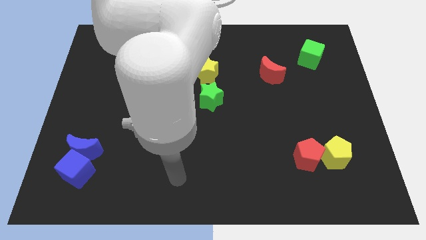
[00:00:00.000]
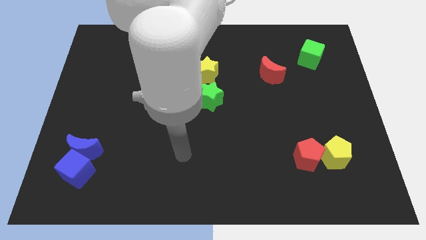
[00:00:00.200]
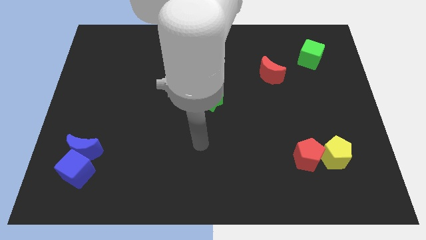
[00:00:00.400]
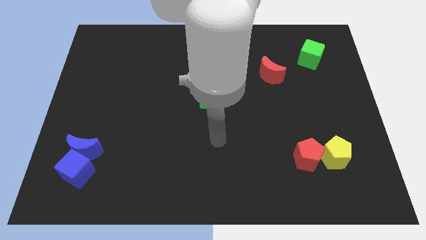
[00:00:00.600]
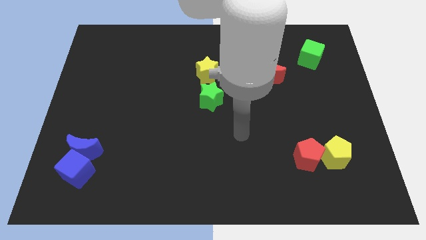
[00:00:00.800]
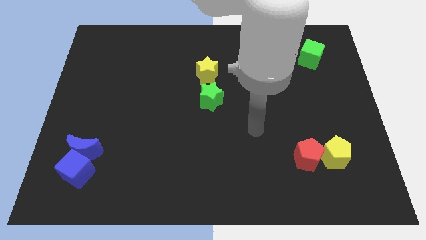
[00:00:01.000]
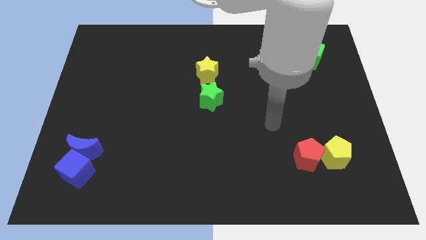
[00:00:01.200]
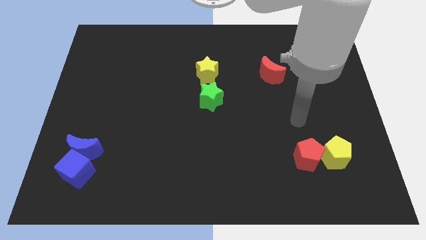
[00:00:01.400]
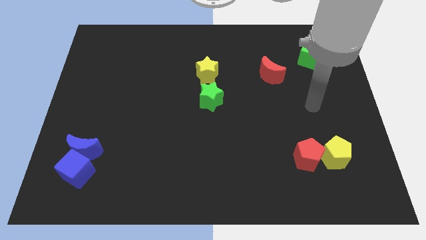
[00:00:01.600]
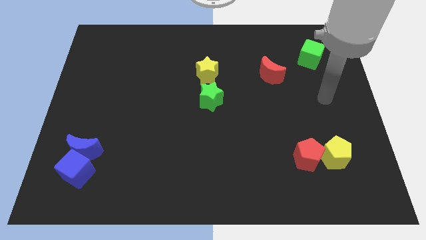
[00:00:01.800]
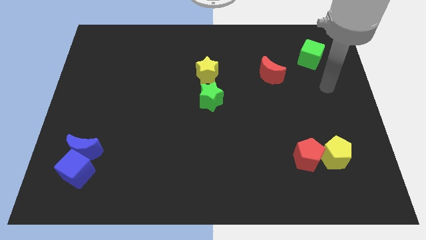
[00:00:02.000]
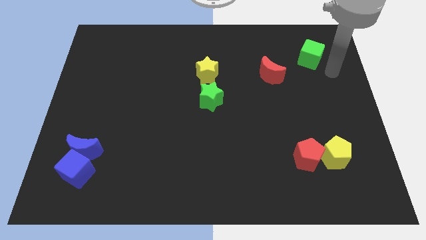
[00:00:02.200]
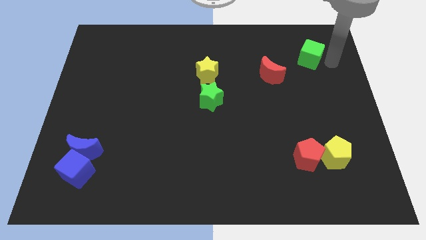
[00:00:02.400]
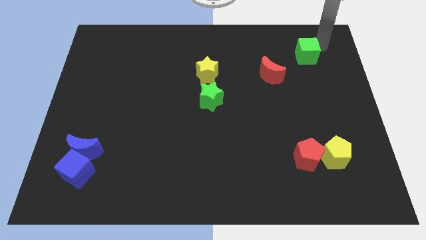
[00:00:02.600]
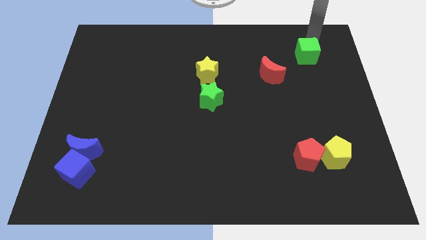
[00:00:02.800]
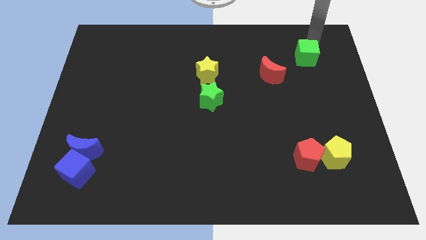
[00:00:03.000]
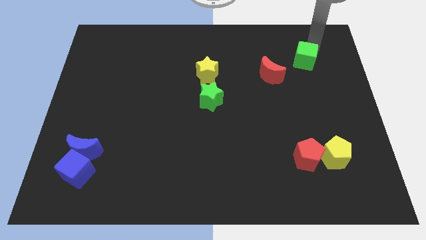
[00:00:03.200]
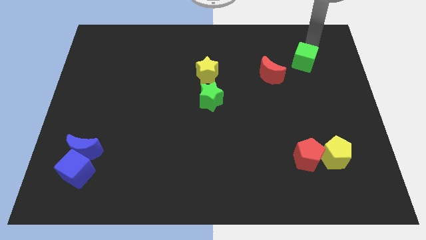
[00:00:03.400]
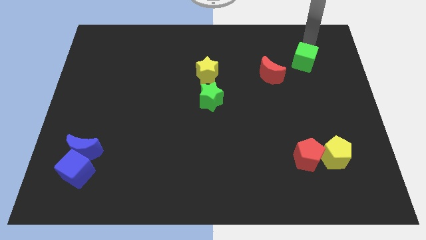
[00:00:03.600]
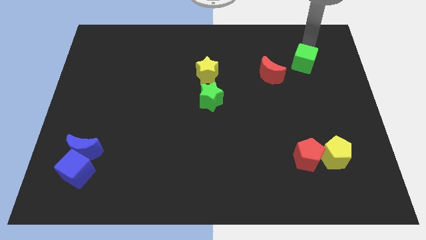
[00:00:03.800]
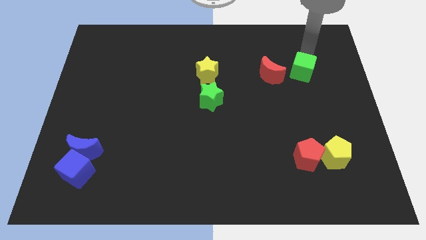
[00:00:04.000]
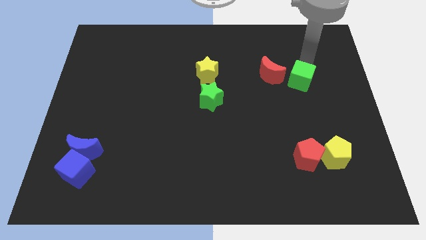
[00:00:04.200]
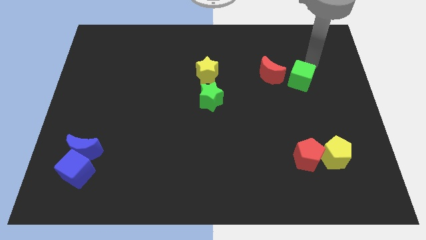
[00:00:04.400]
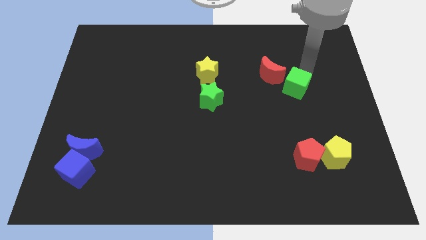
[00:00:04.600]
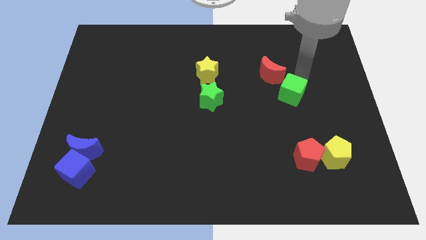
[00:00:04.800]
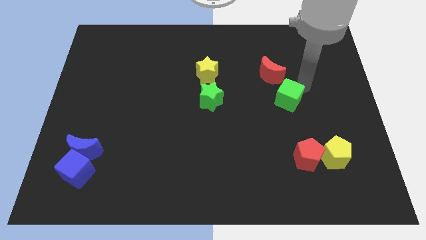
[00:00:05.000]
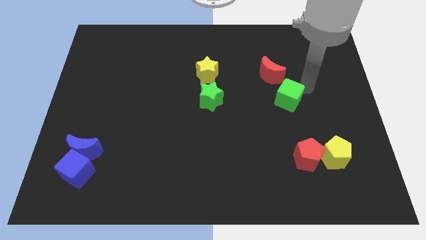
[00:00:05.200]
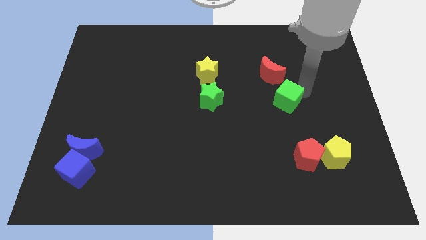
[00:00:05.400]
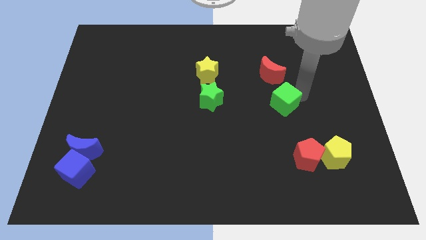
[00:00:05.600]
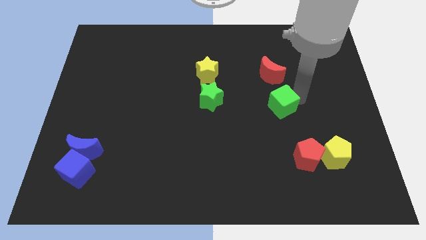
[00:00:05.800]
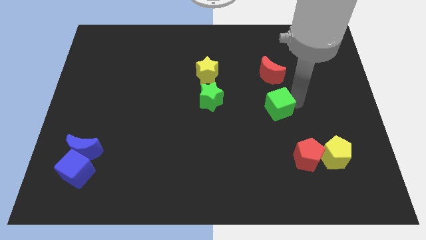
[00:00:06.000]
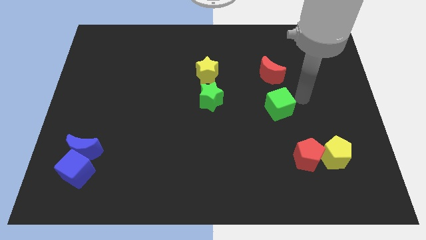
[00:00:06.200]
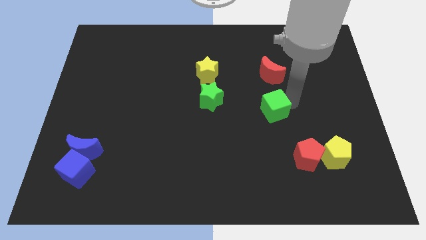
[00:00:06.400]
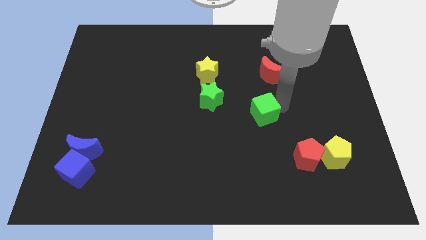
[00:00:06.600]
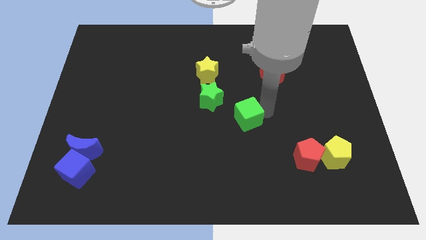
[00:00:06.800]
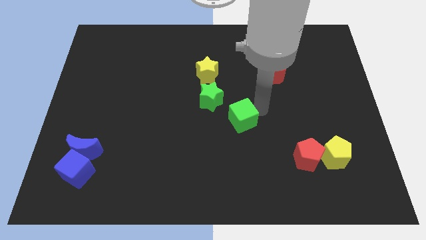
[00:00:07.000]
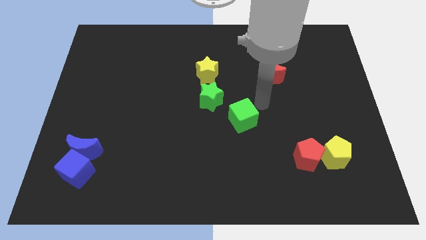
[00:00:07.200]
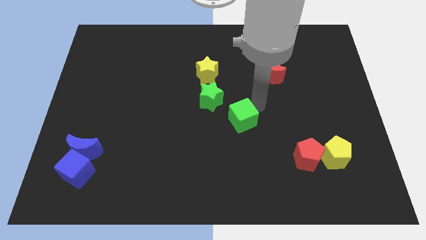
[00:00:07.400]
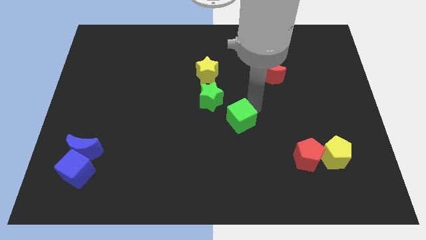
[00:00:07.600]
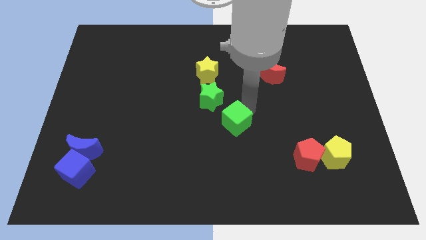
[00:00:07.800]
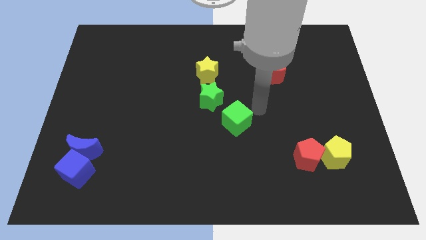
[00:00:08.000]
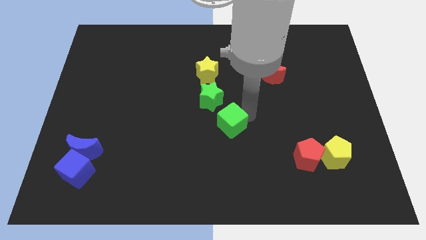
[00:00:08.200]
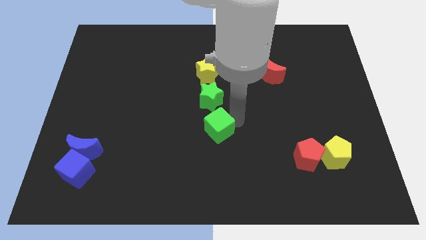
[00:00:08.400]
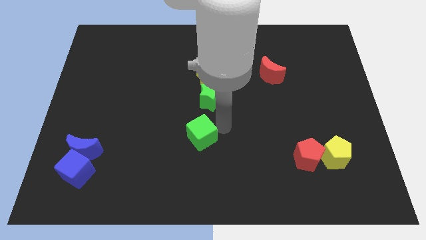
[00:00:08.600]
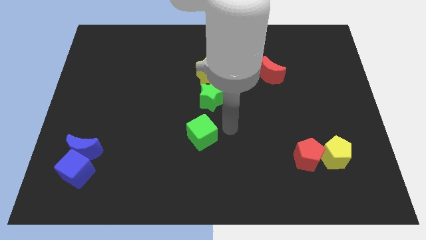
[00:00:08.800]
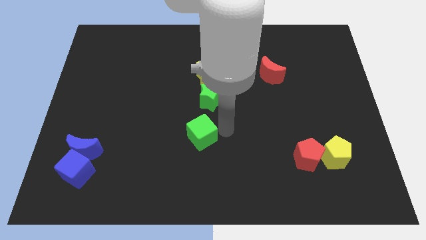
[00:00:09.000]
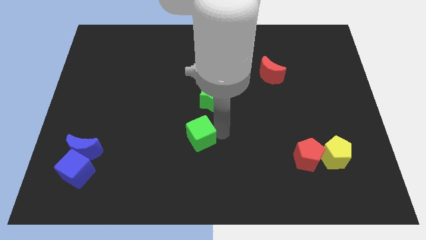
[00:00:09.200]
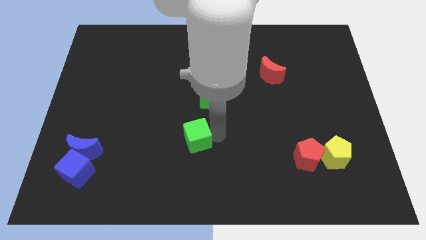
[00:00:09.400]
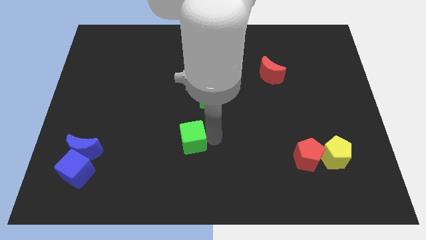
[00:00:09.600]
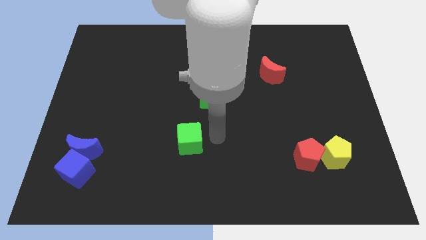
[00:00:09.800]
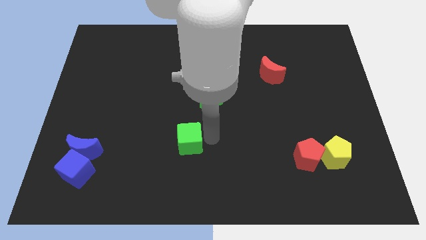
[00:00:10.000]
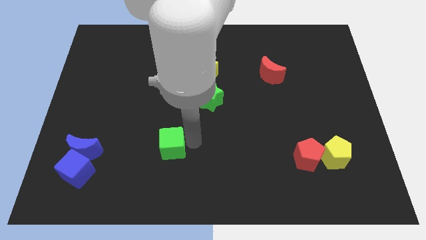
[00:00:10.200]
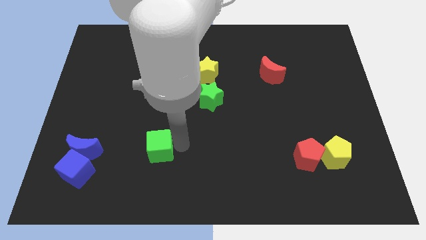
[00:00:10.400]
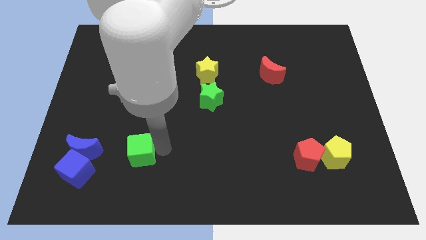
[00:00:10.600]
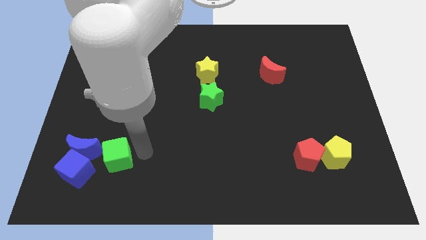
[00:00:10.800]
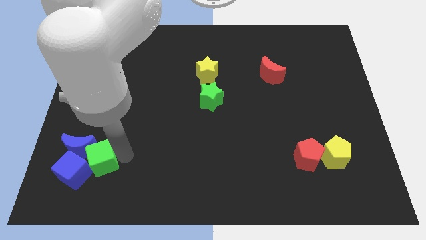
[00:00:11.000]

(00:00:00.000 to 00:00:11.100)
move the green cube close to the blue cube

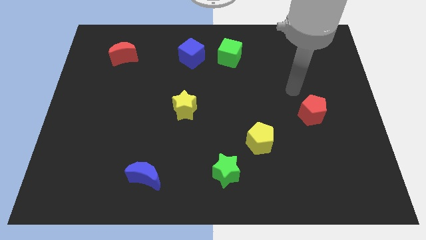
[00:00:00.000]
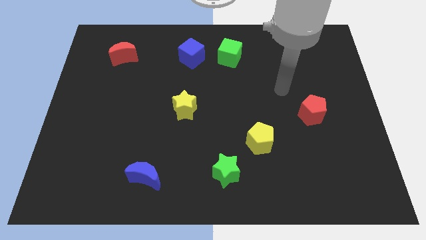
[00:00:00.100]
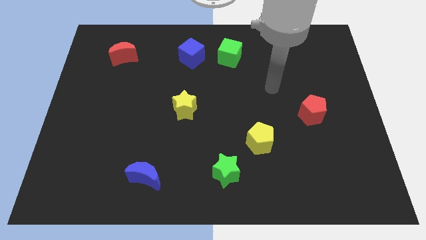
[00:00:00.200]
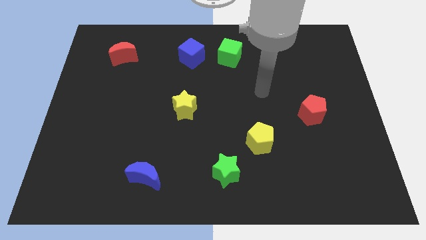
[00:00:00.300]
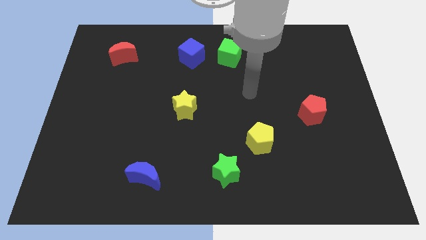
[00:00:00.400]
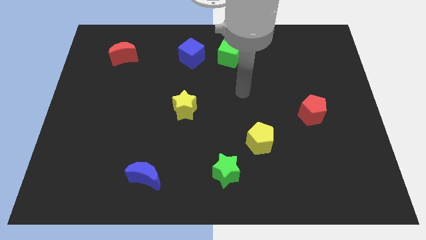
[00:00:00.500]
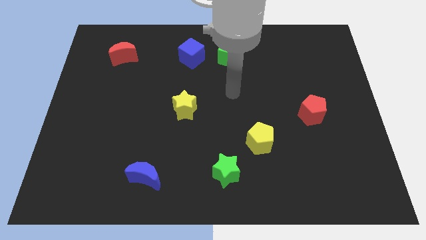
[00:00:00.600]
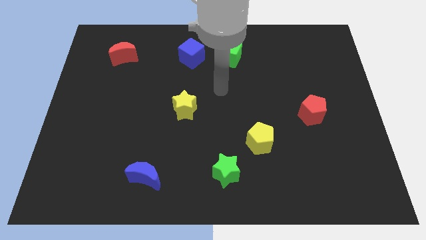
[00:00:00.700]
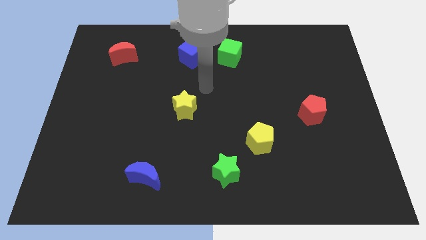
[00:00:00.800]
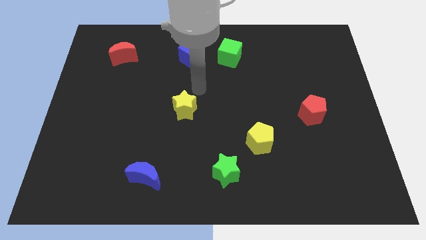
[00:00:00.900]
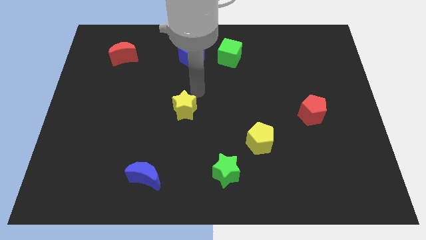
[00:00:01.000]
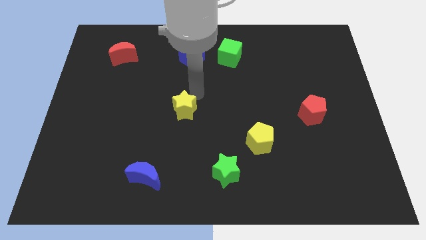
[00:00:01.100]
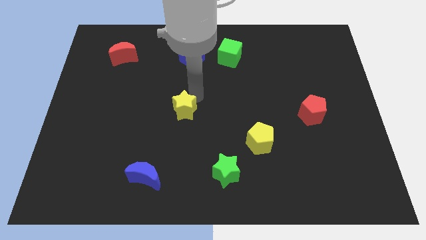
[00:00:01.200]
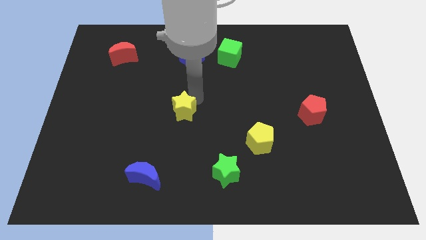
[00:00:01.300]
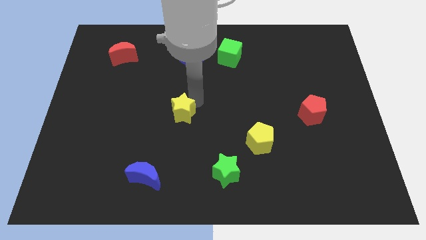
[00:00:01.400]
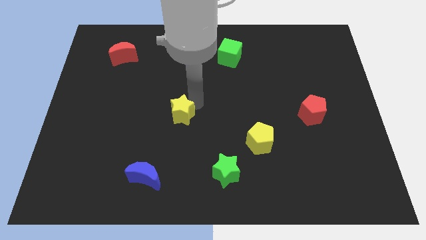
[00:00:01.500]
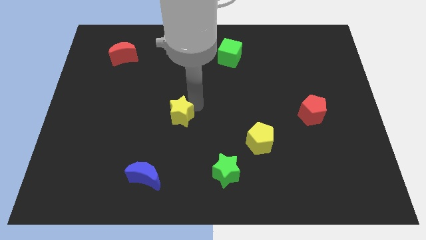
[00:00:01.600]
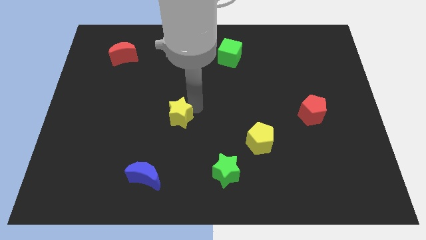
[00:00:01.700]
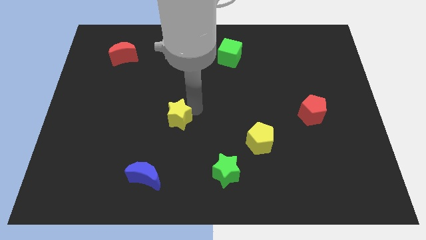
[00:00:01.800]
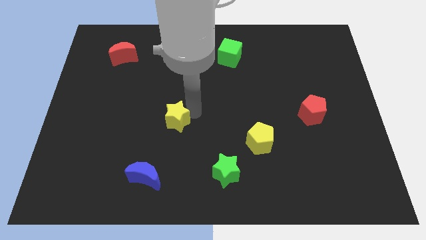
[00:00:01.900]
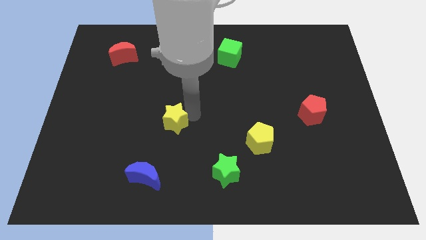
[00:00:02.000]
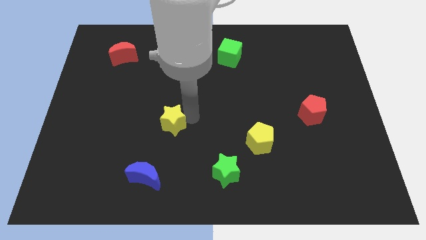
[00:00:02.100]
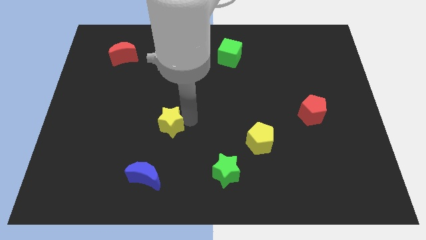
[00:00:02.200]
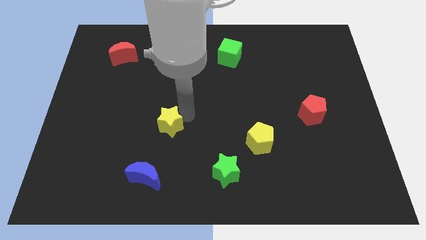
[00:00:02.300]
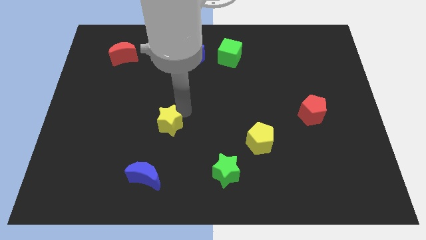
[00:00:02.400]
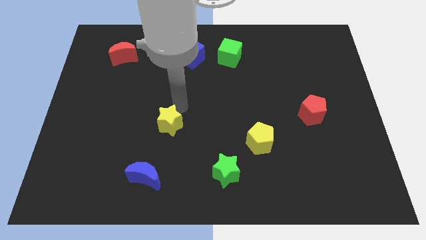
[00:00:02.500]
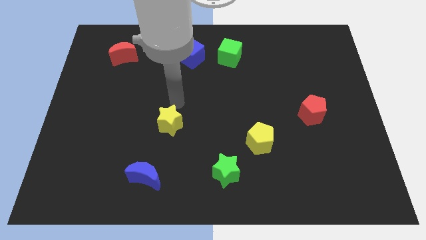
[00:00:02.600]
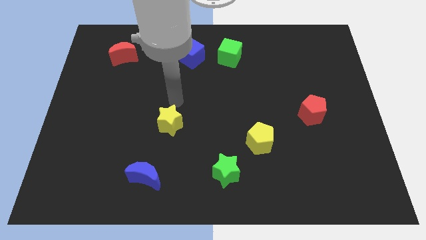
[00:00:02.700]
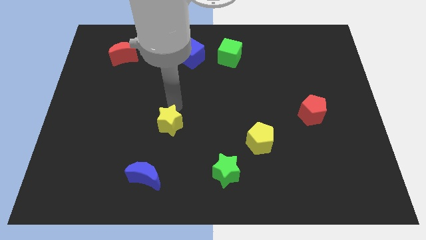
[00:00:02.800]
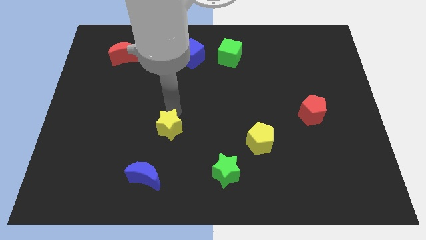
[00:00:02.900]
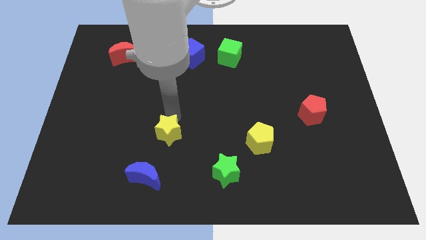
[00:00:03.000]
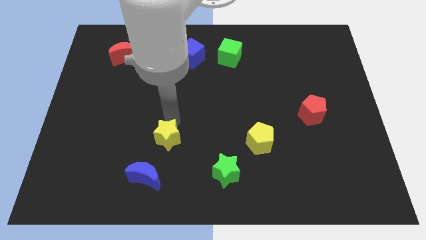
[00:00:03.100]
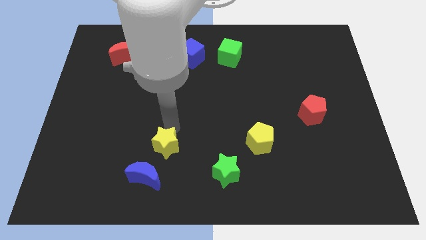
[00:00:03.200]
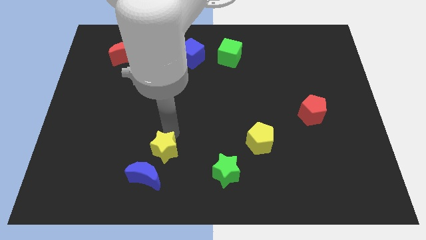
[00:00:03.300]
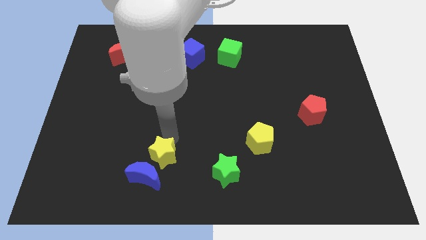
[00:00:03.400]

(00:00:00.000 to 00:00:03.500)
push the yellow star to the blue moon
